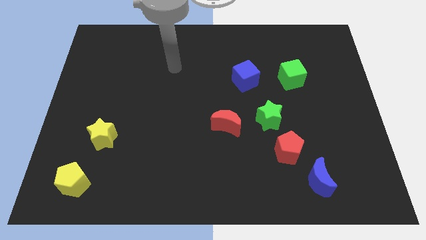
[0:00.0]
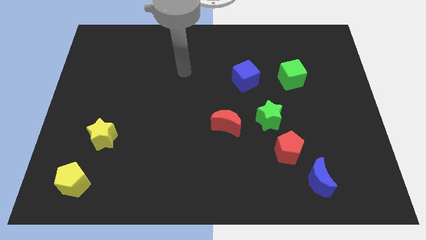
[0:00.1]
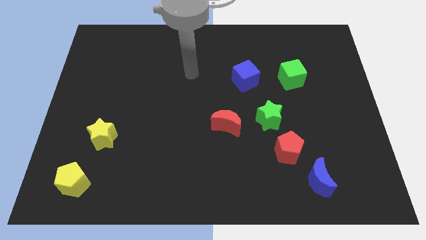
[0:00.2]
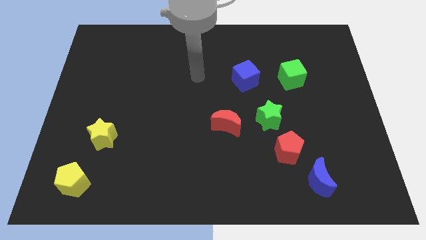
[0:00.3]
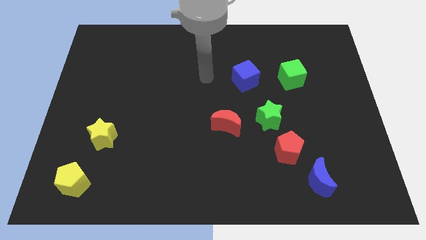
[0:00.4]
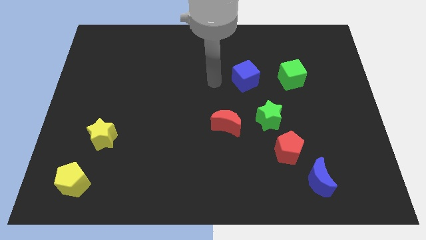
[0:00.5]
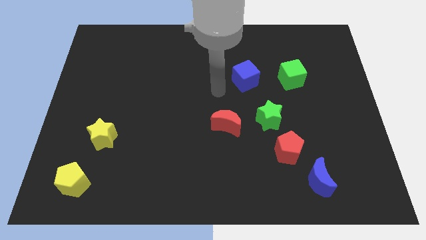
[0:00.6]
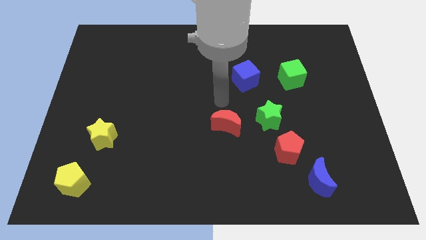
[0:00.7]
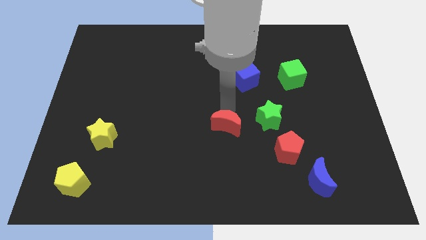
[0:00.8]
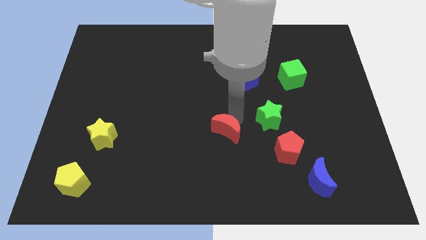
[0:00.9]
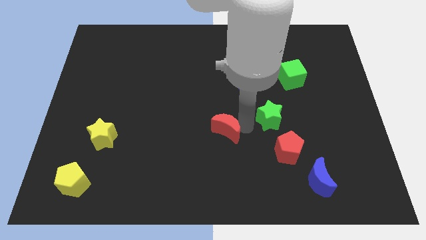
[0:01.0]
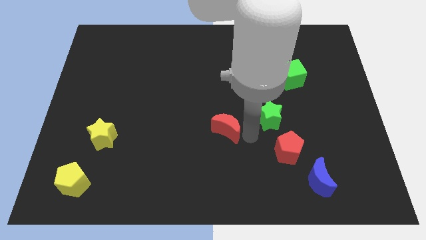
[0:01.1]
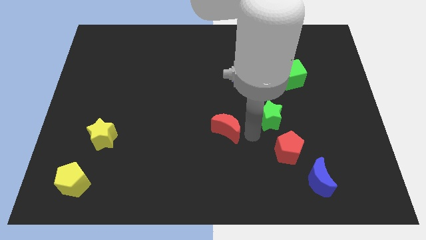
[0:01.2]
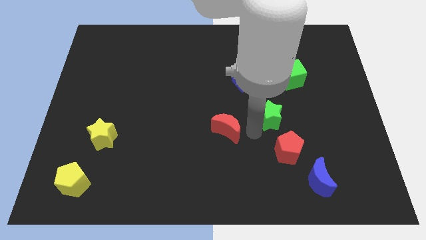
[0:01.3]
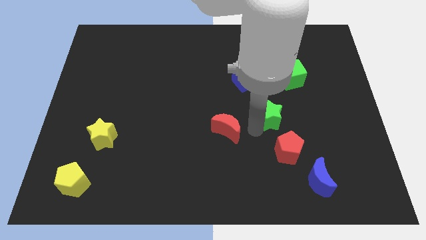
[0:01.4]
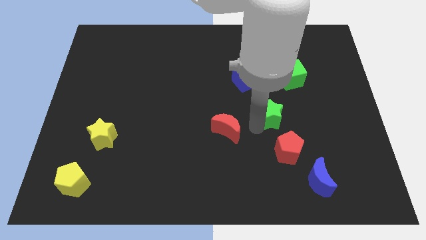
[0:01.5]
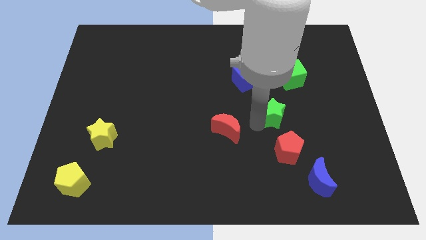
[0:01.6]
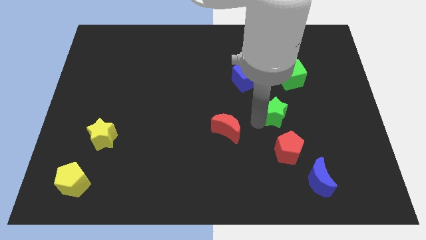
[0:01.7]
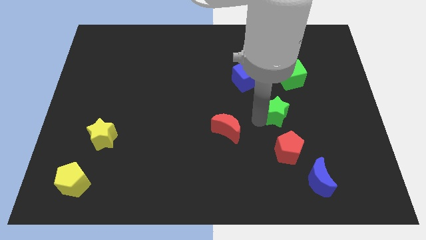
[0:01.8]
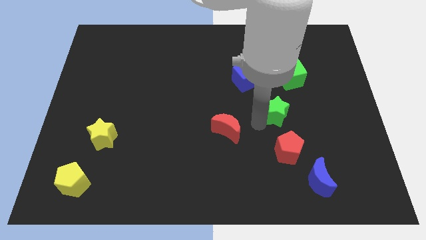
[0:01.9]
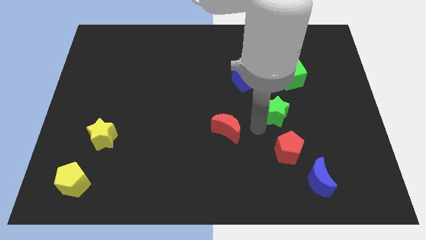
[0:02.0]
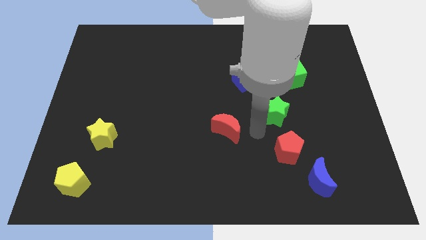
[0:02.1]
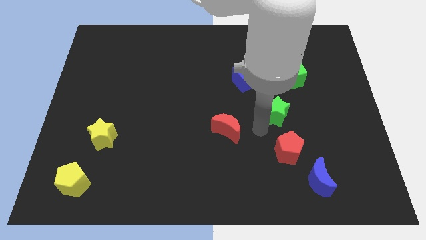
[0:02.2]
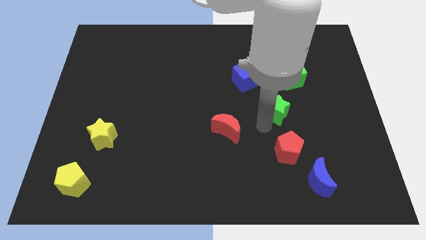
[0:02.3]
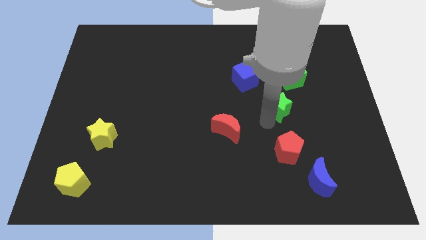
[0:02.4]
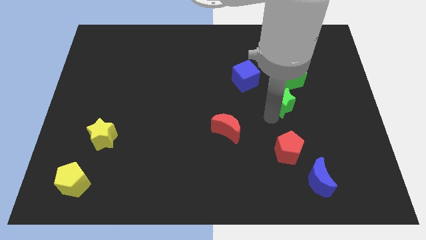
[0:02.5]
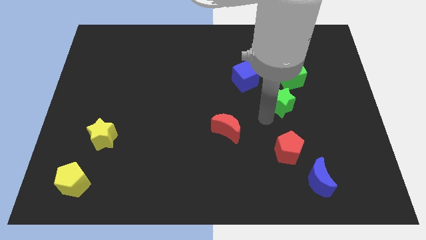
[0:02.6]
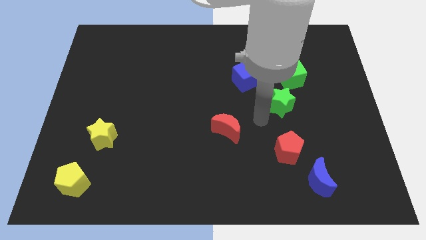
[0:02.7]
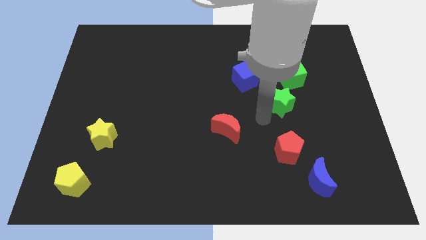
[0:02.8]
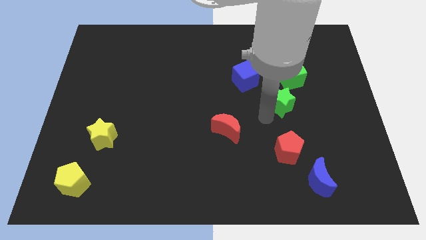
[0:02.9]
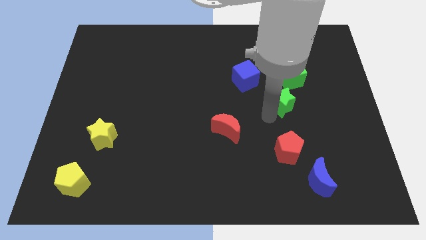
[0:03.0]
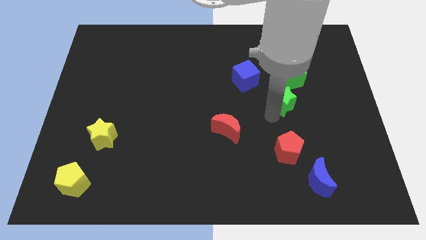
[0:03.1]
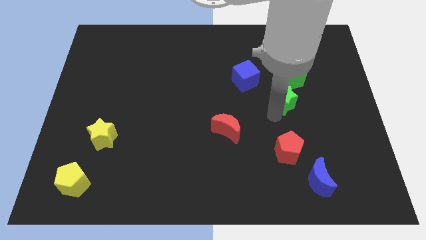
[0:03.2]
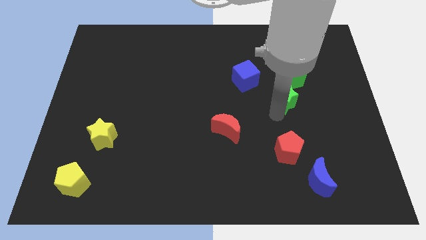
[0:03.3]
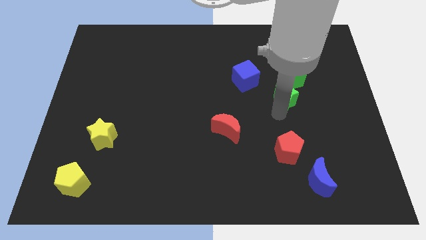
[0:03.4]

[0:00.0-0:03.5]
slide the green star upwards and right a little

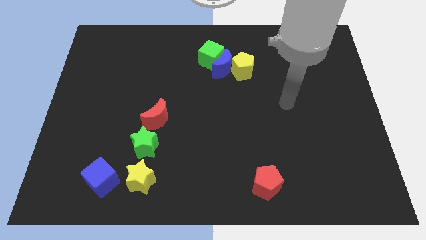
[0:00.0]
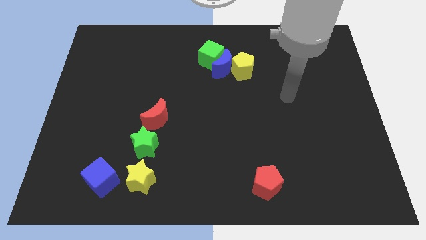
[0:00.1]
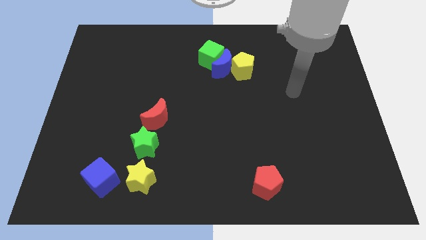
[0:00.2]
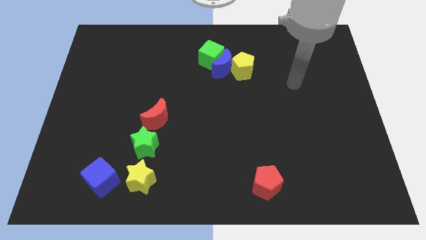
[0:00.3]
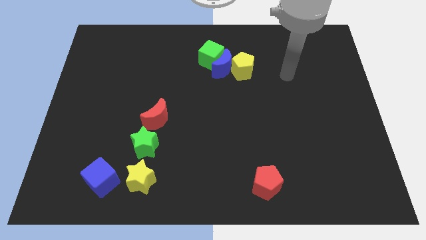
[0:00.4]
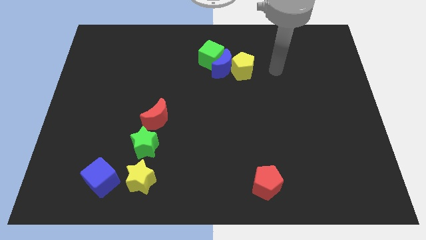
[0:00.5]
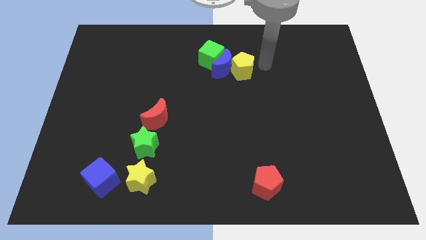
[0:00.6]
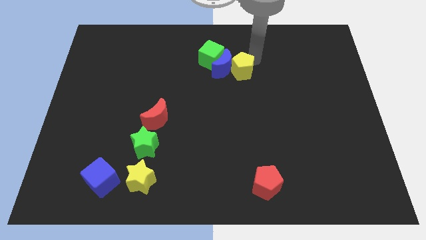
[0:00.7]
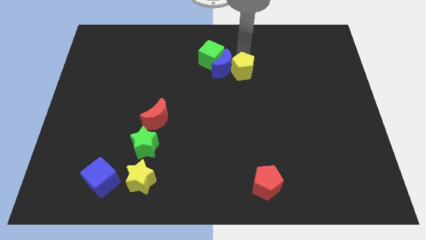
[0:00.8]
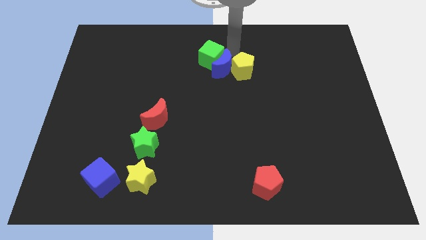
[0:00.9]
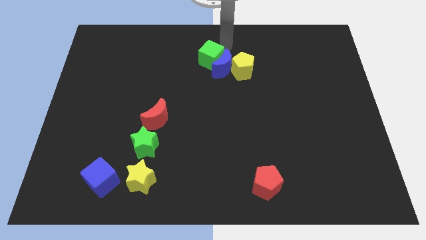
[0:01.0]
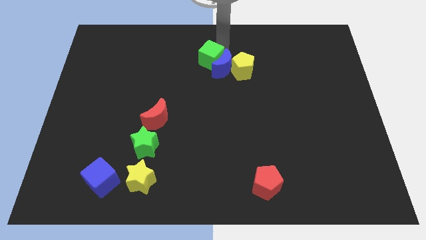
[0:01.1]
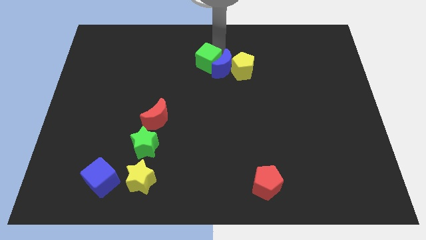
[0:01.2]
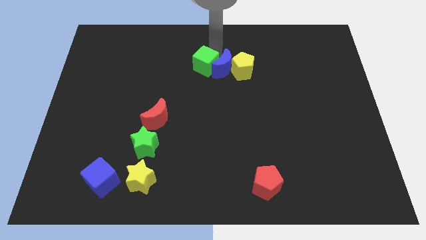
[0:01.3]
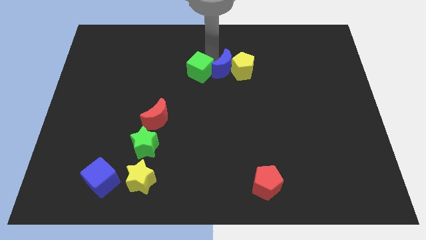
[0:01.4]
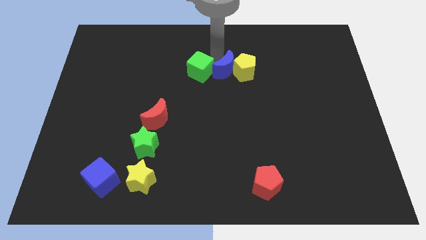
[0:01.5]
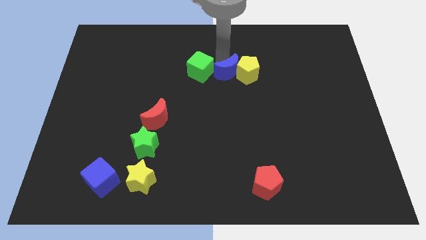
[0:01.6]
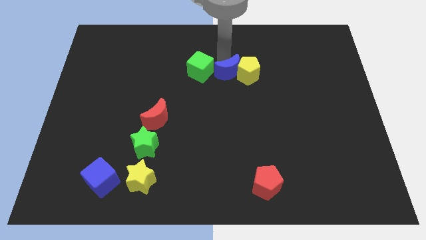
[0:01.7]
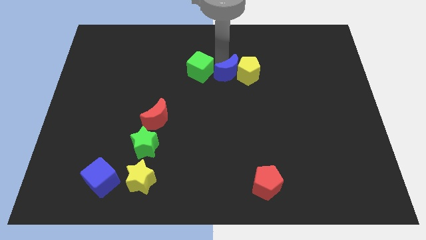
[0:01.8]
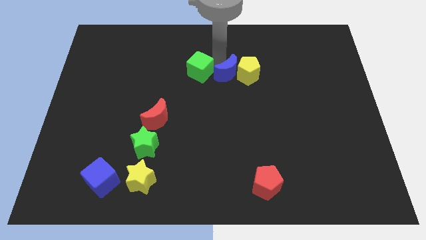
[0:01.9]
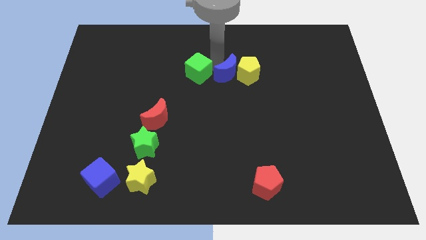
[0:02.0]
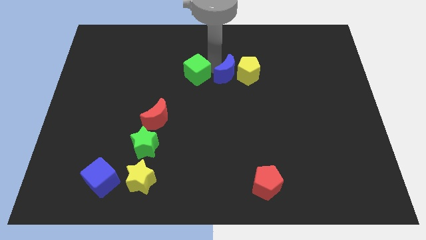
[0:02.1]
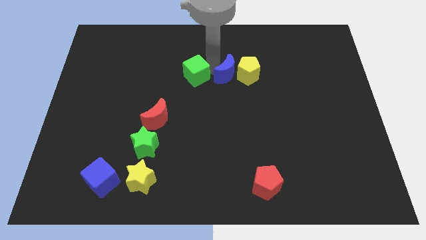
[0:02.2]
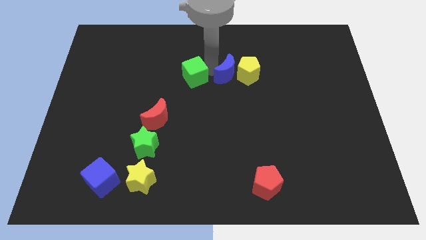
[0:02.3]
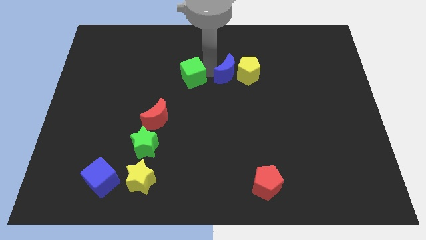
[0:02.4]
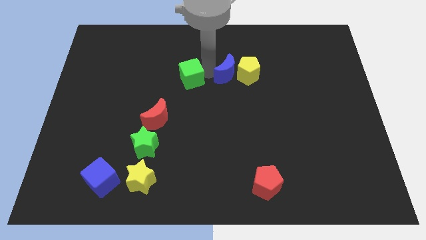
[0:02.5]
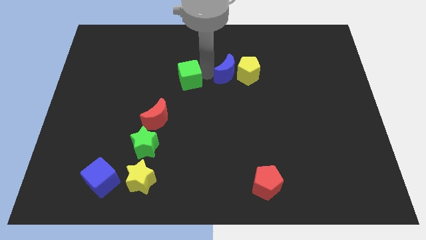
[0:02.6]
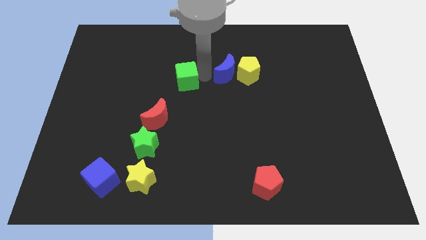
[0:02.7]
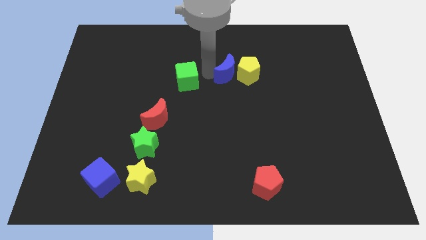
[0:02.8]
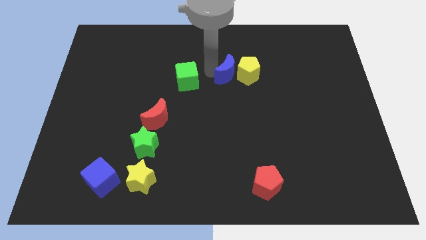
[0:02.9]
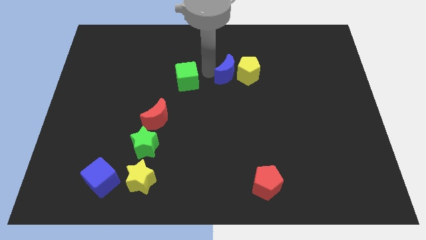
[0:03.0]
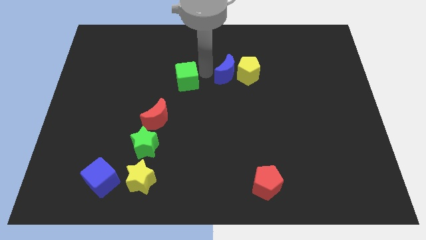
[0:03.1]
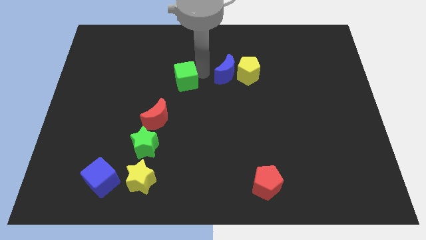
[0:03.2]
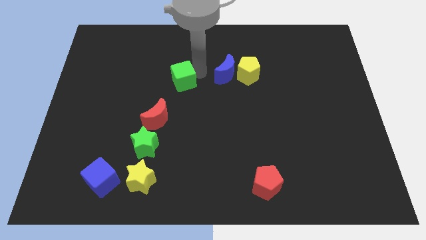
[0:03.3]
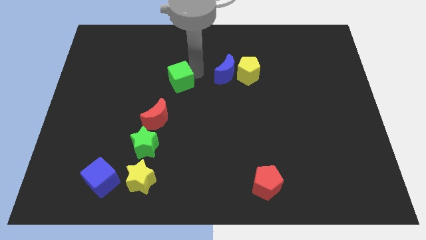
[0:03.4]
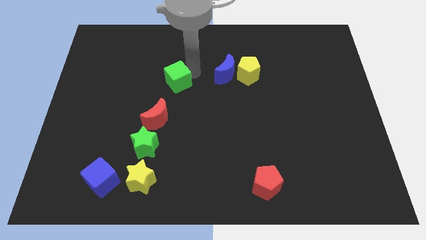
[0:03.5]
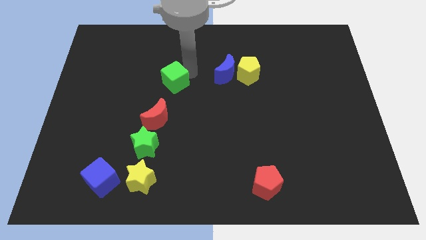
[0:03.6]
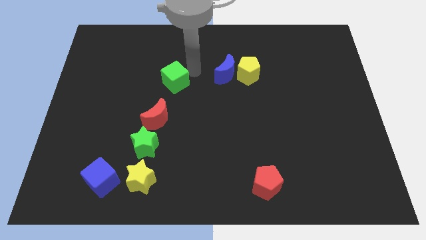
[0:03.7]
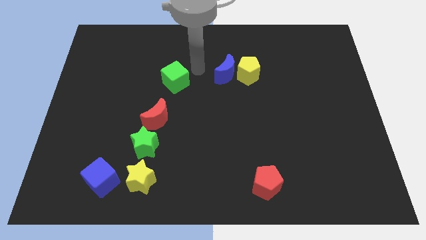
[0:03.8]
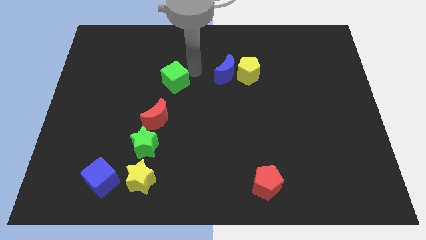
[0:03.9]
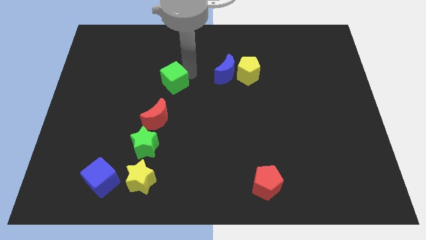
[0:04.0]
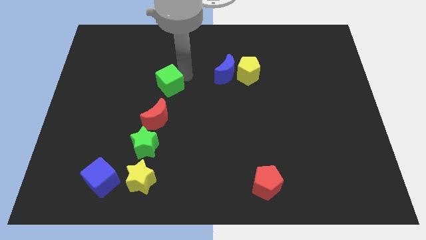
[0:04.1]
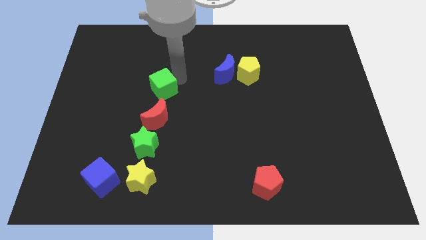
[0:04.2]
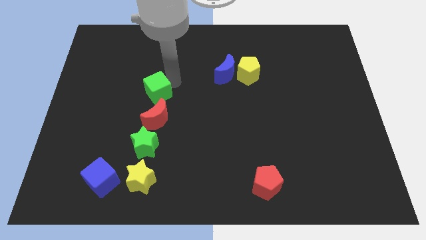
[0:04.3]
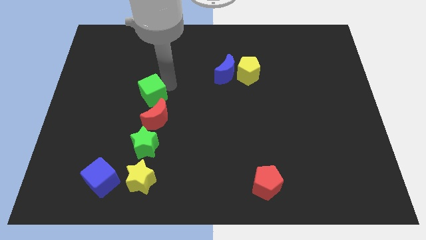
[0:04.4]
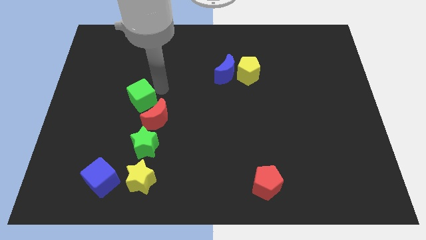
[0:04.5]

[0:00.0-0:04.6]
move the green cube down and to the left diagonally
